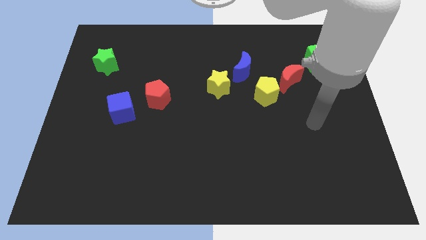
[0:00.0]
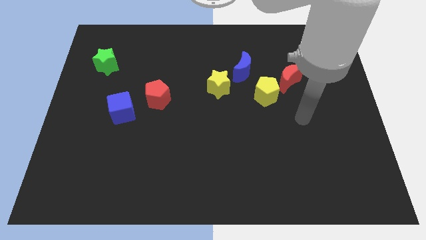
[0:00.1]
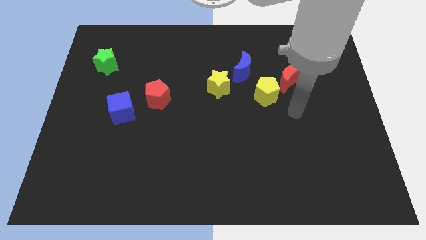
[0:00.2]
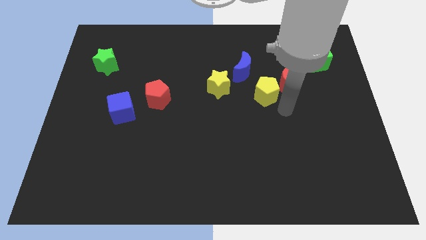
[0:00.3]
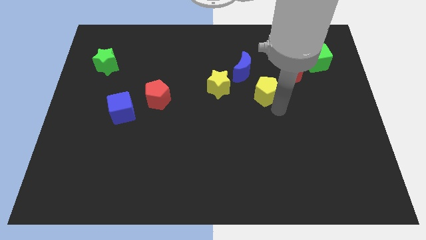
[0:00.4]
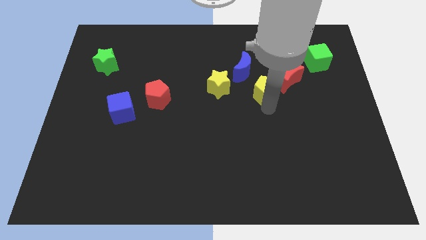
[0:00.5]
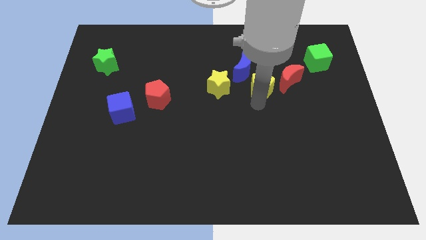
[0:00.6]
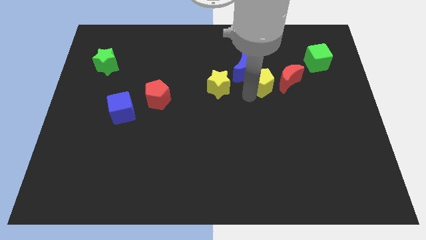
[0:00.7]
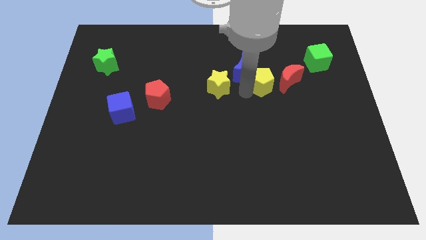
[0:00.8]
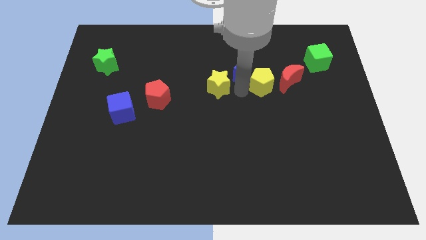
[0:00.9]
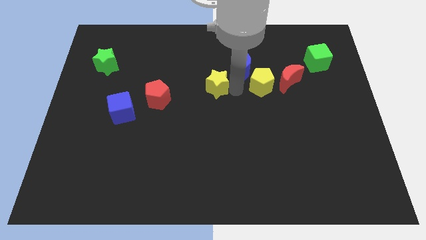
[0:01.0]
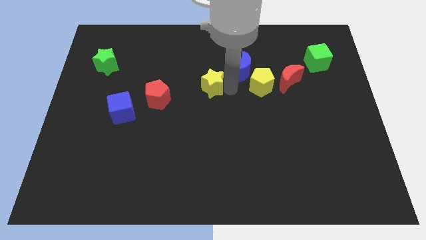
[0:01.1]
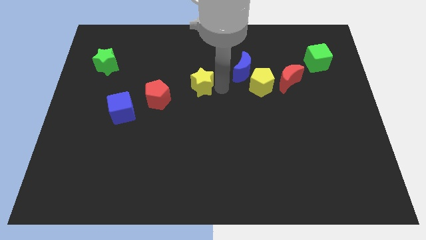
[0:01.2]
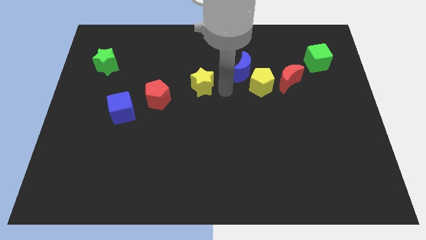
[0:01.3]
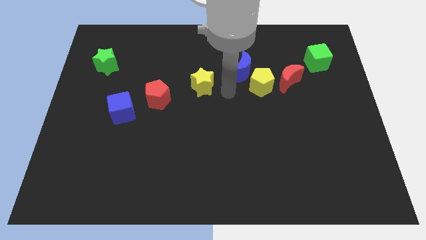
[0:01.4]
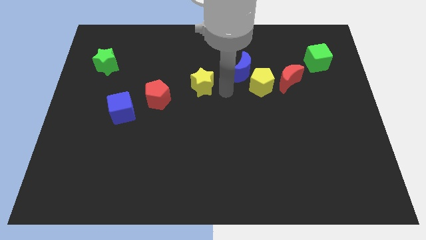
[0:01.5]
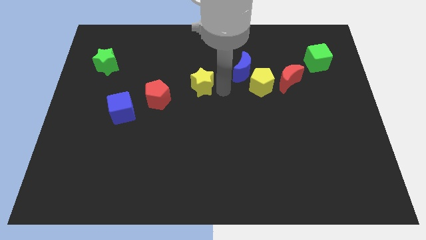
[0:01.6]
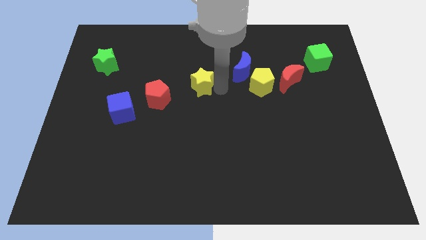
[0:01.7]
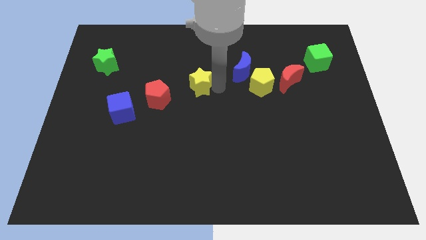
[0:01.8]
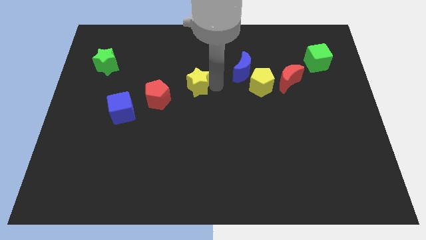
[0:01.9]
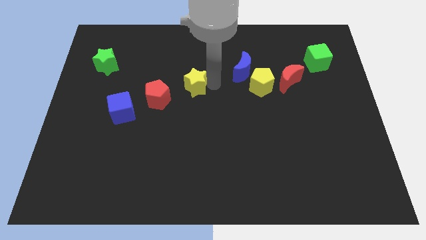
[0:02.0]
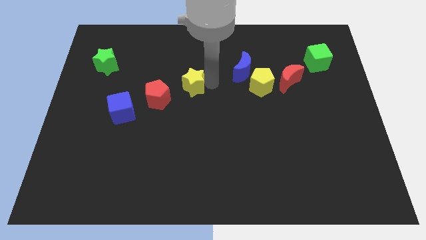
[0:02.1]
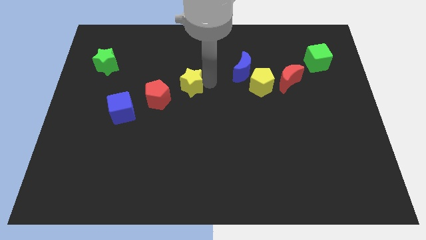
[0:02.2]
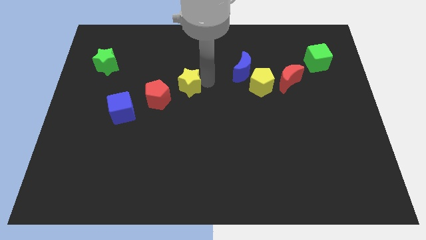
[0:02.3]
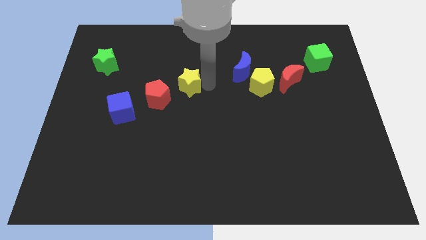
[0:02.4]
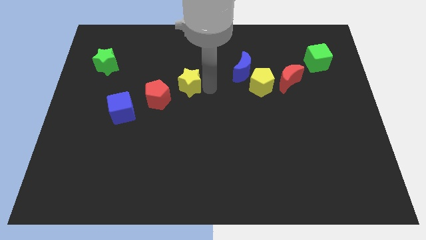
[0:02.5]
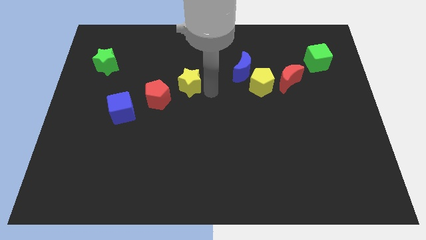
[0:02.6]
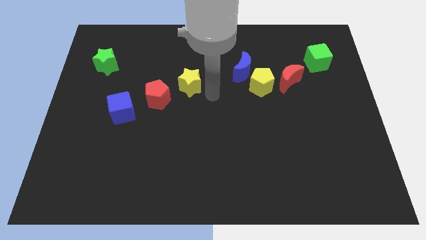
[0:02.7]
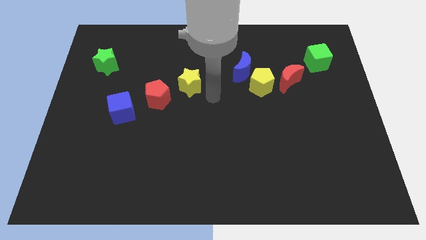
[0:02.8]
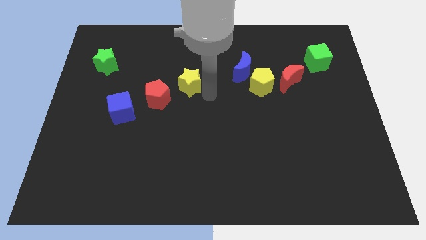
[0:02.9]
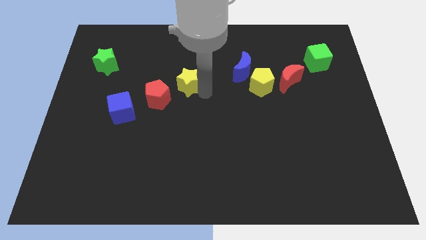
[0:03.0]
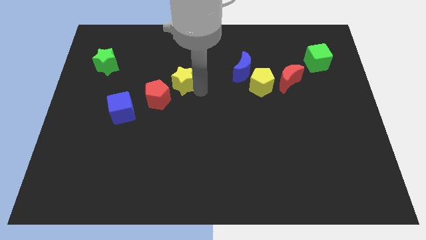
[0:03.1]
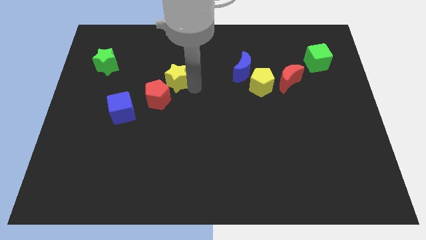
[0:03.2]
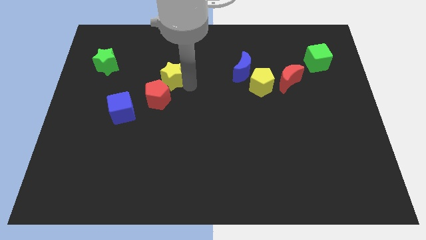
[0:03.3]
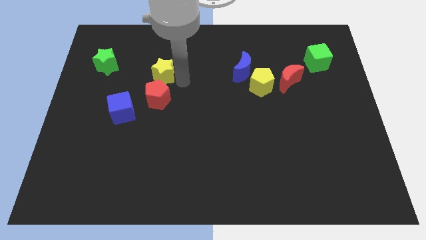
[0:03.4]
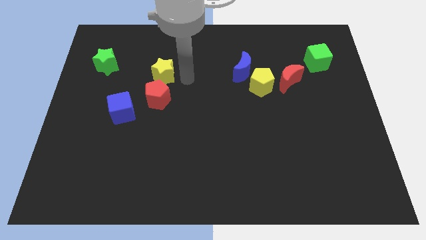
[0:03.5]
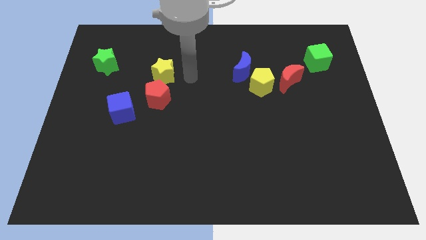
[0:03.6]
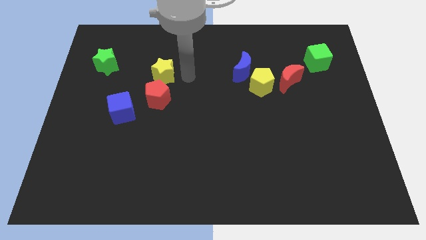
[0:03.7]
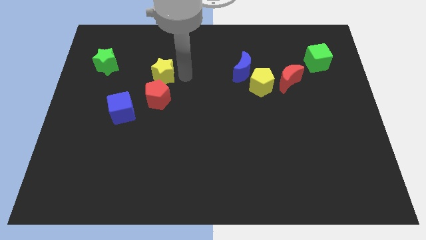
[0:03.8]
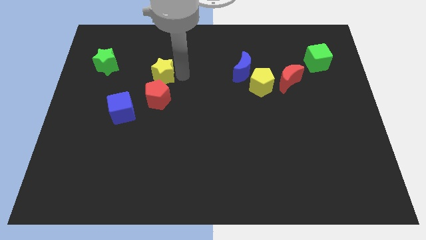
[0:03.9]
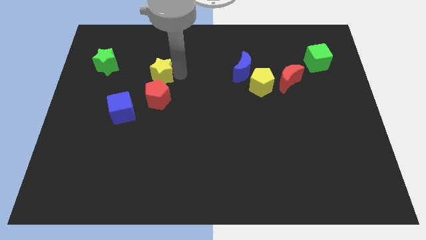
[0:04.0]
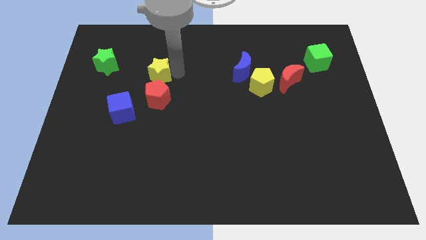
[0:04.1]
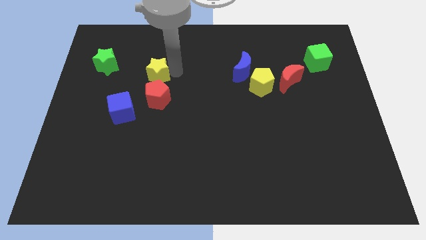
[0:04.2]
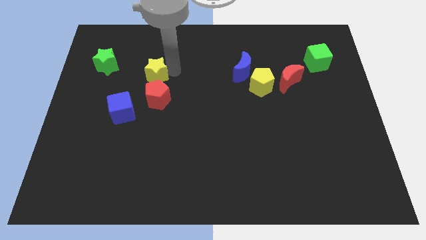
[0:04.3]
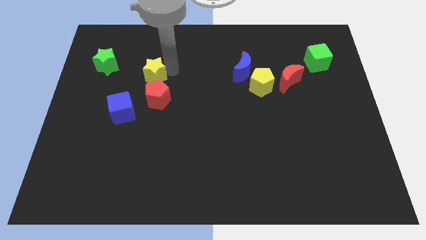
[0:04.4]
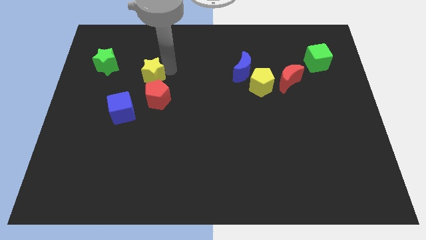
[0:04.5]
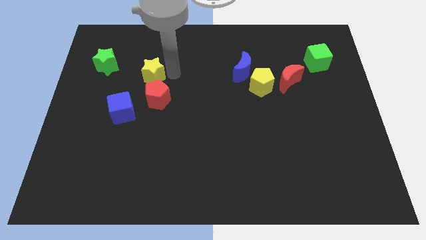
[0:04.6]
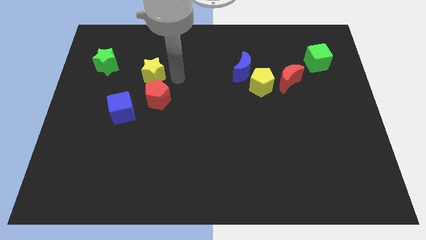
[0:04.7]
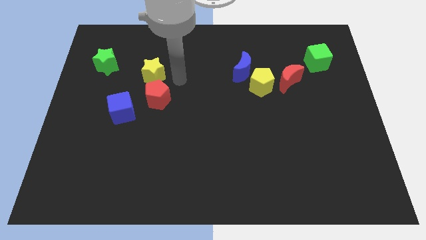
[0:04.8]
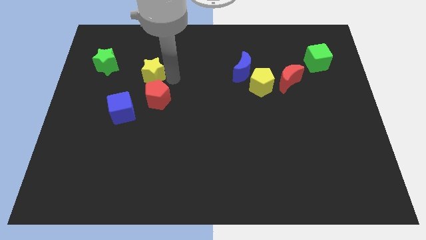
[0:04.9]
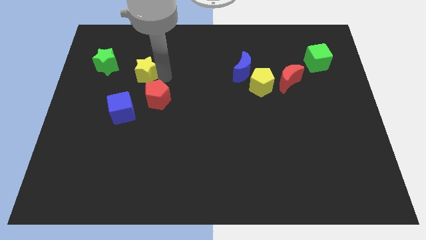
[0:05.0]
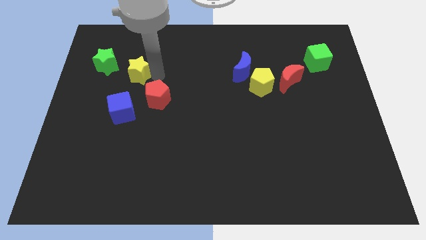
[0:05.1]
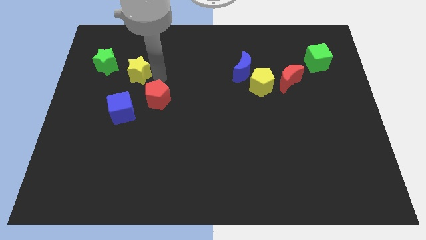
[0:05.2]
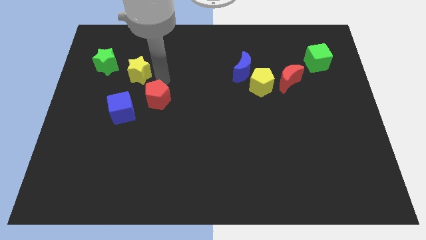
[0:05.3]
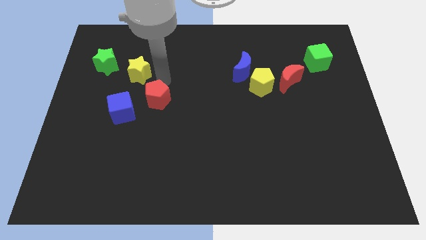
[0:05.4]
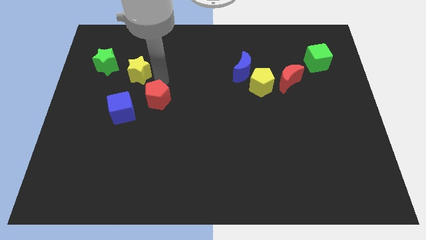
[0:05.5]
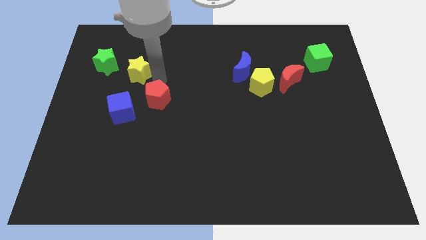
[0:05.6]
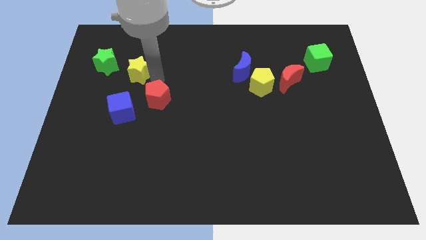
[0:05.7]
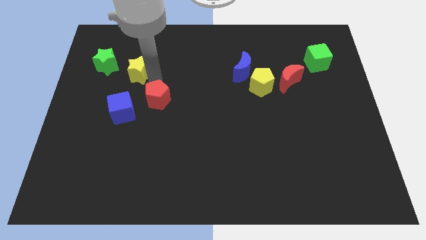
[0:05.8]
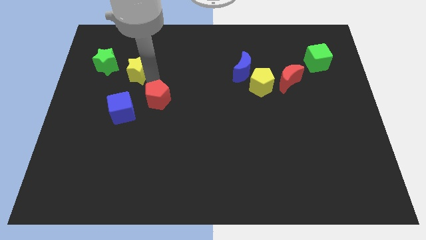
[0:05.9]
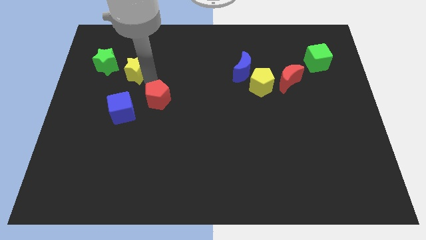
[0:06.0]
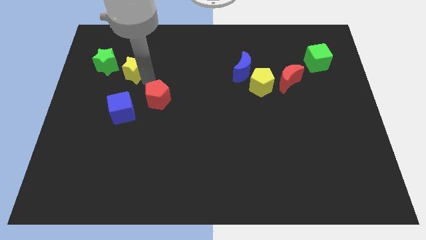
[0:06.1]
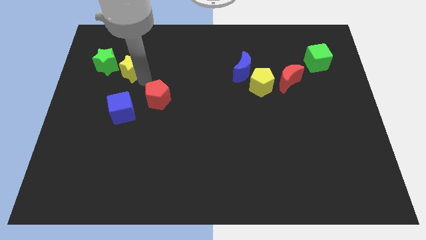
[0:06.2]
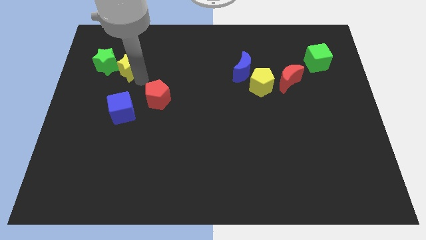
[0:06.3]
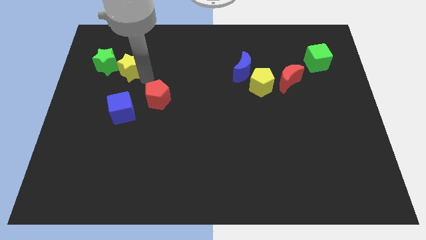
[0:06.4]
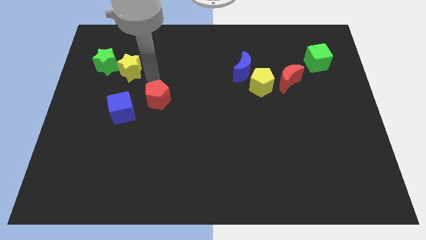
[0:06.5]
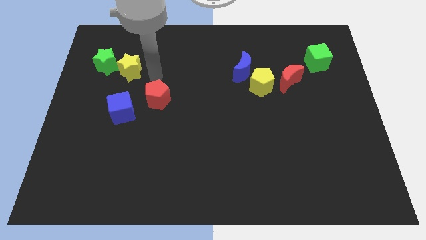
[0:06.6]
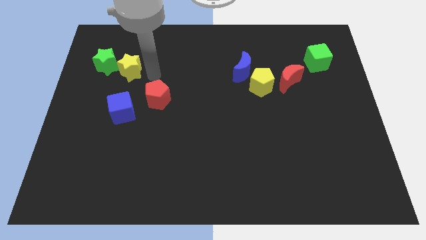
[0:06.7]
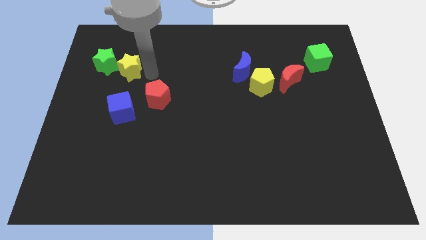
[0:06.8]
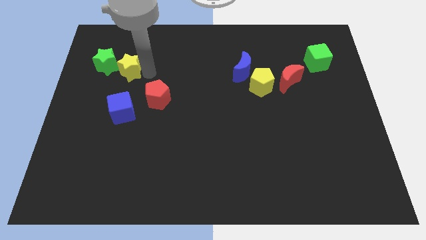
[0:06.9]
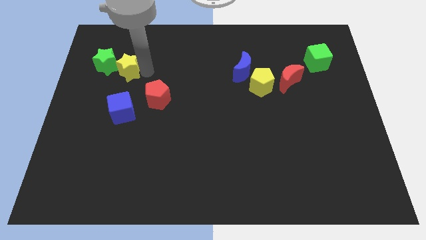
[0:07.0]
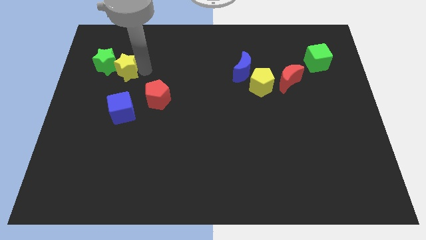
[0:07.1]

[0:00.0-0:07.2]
slide the yellow star close to the green star
